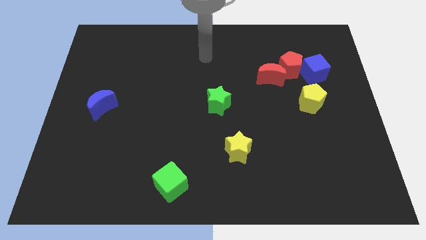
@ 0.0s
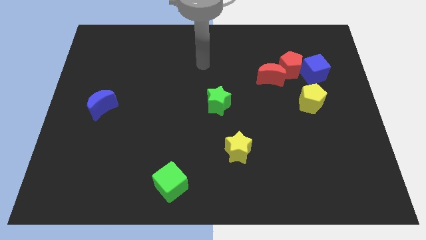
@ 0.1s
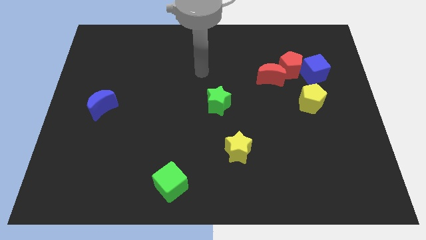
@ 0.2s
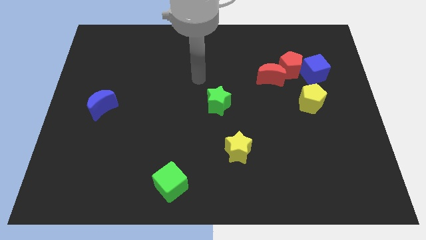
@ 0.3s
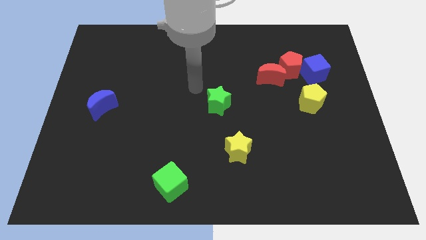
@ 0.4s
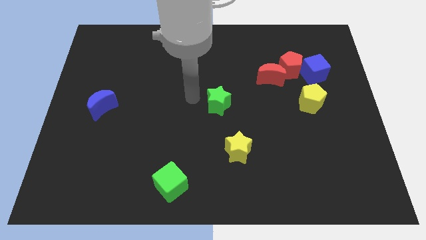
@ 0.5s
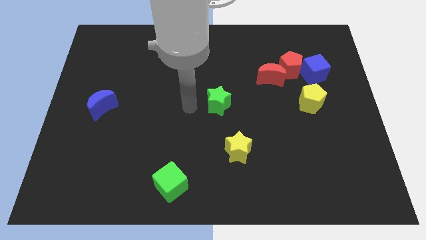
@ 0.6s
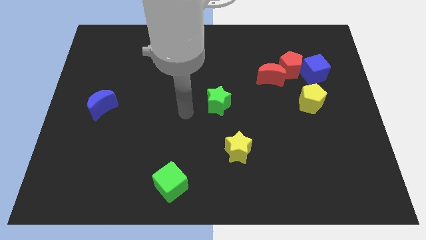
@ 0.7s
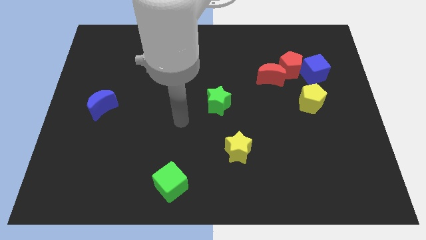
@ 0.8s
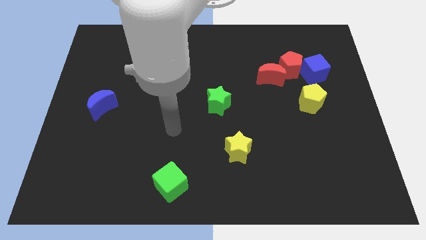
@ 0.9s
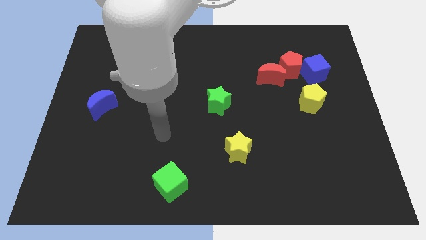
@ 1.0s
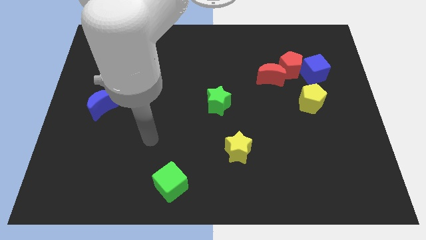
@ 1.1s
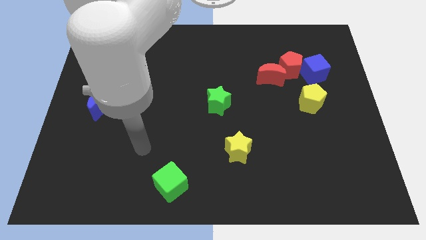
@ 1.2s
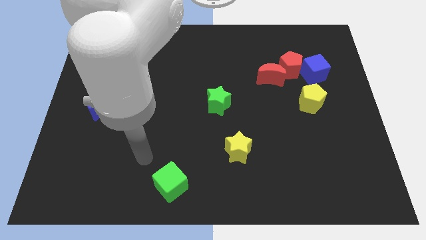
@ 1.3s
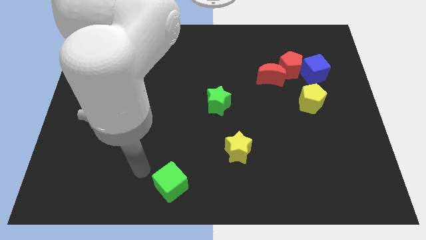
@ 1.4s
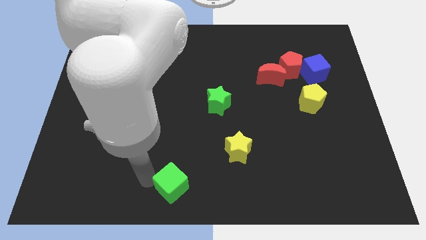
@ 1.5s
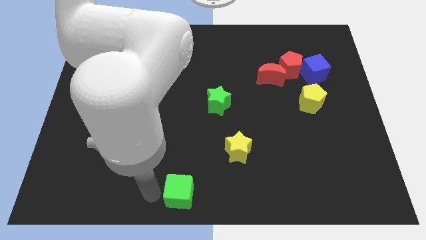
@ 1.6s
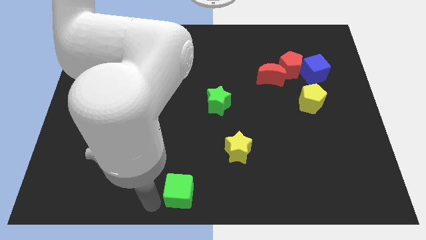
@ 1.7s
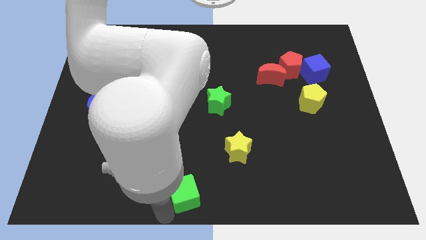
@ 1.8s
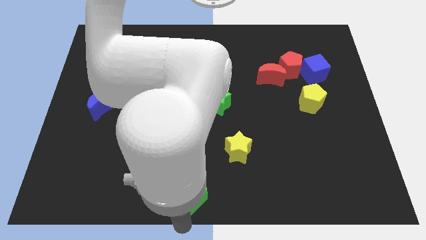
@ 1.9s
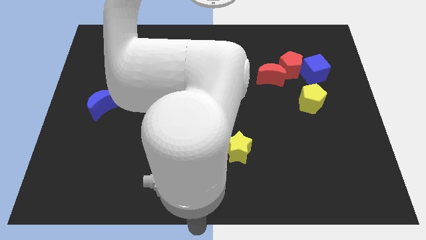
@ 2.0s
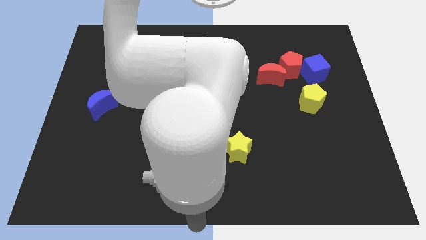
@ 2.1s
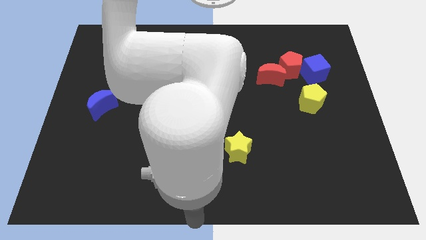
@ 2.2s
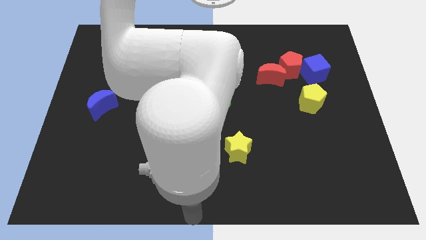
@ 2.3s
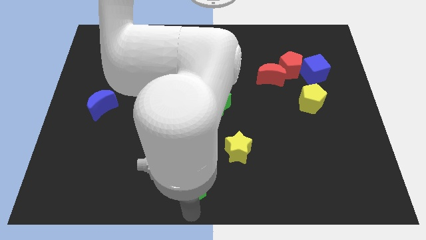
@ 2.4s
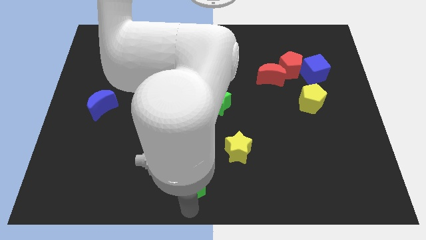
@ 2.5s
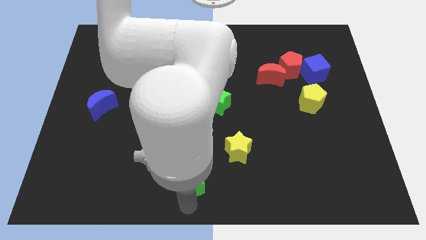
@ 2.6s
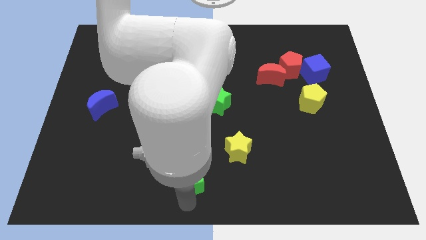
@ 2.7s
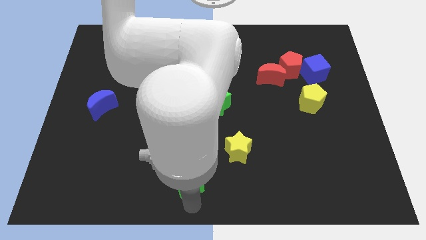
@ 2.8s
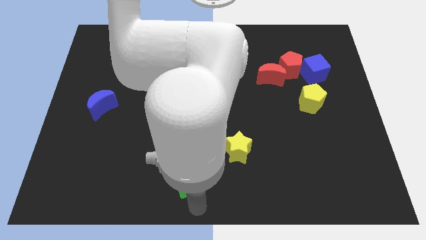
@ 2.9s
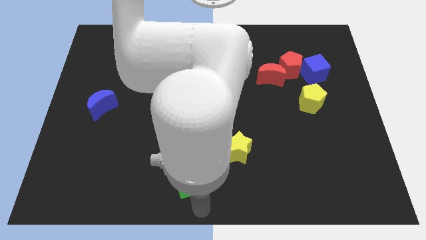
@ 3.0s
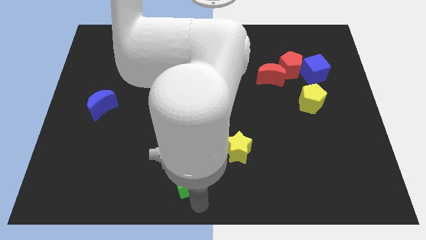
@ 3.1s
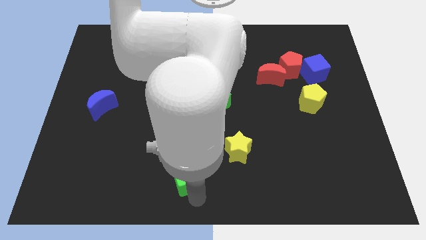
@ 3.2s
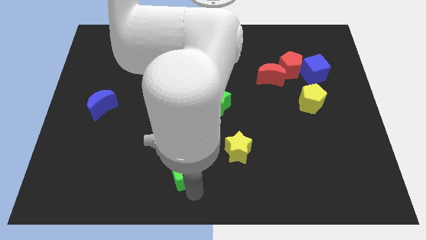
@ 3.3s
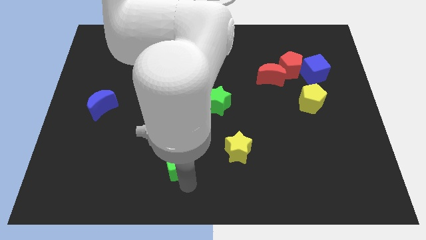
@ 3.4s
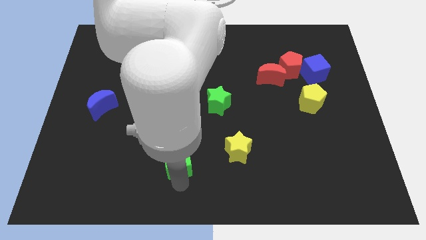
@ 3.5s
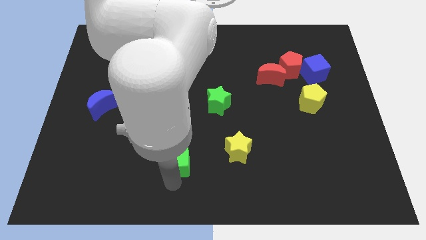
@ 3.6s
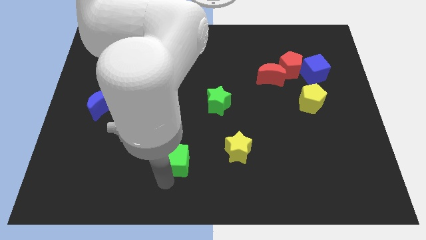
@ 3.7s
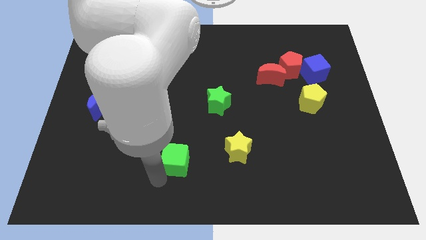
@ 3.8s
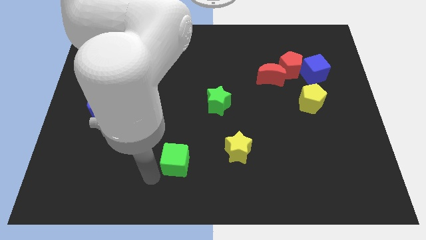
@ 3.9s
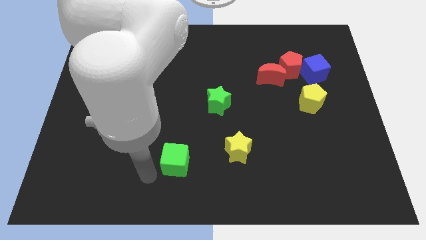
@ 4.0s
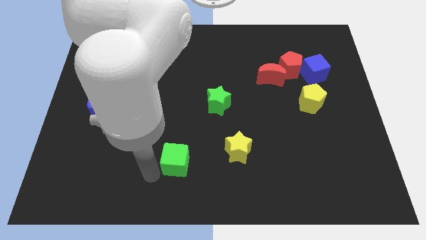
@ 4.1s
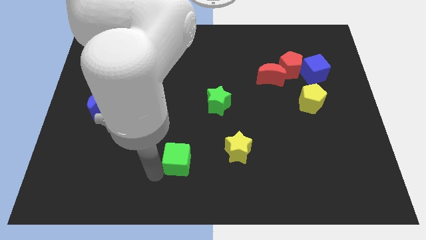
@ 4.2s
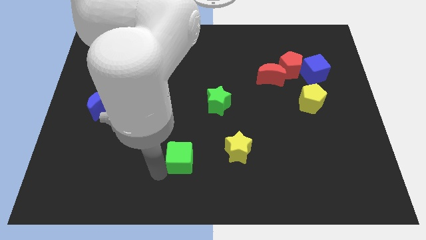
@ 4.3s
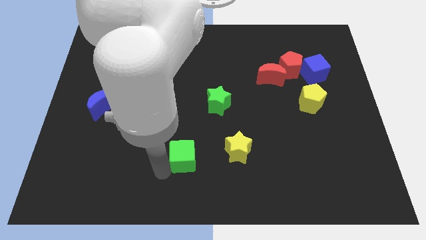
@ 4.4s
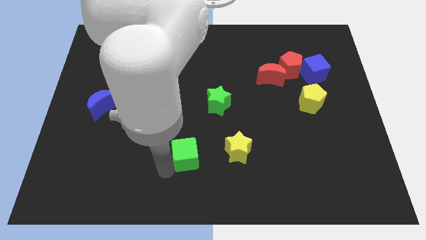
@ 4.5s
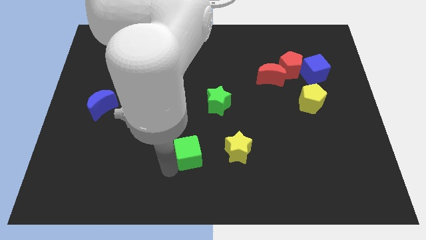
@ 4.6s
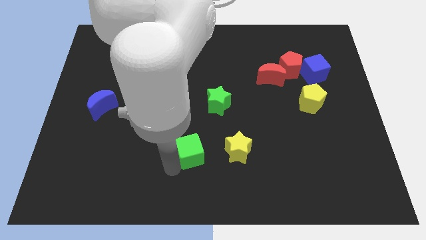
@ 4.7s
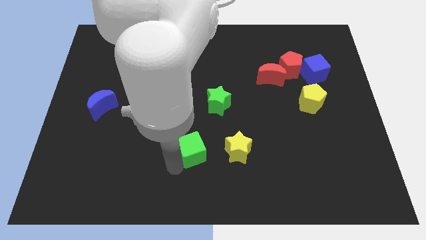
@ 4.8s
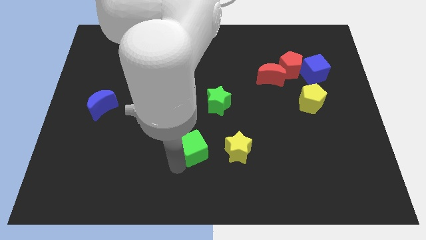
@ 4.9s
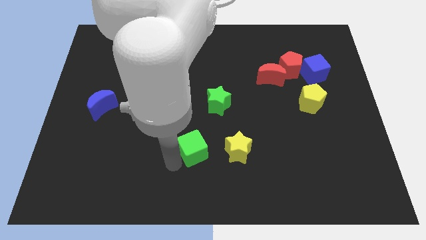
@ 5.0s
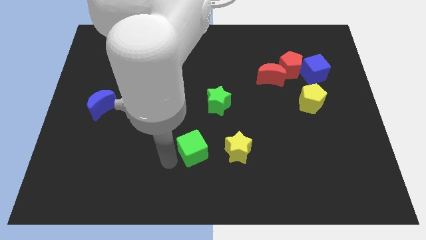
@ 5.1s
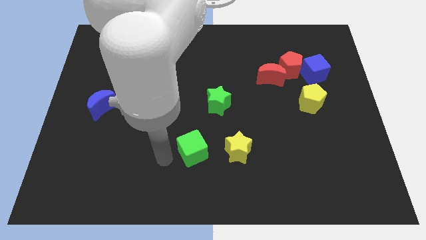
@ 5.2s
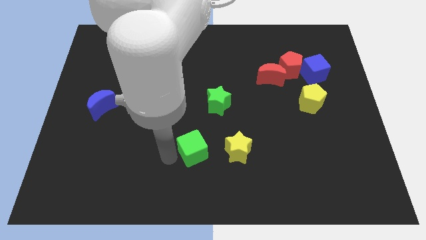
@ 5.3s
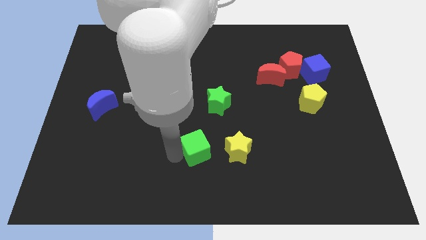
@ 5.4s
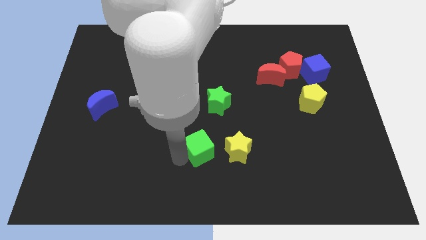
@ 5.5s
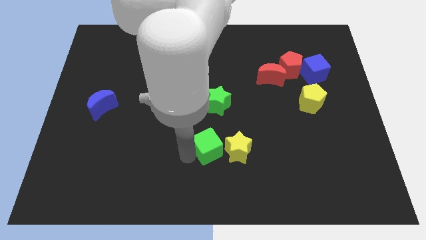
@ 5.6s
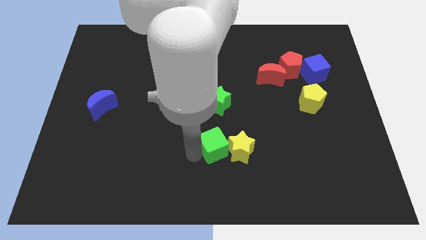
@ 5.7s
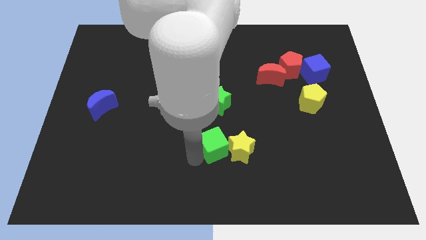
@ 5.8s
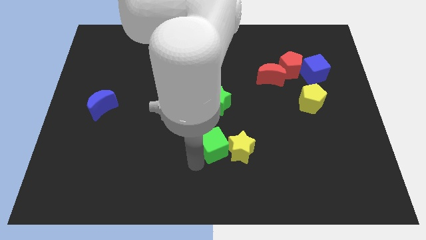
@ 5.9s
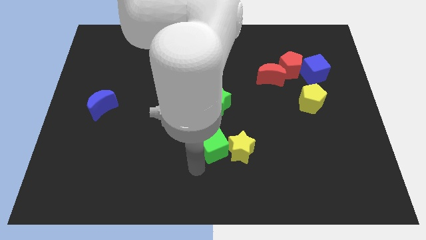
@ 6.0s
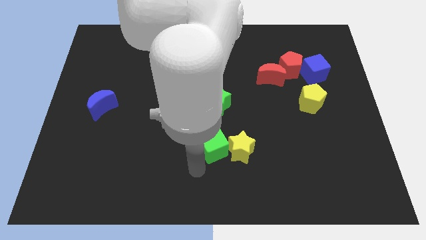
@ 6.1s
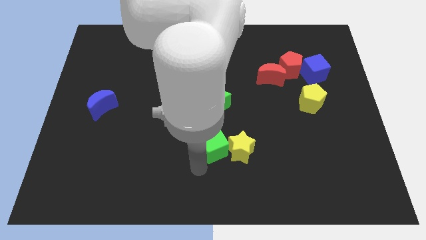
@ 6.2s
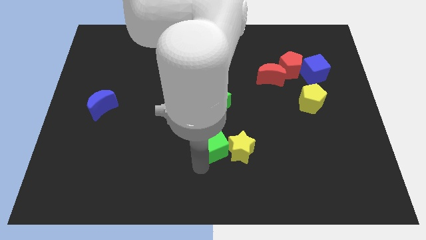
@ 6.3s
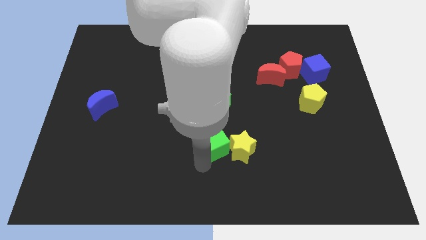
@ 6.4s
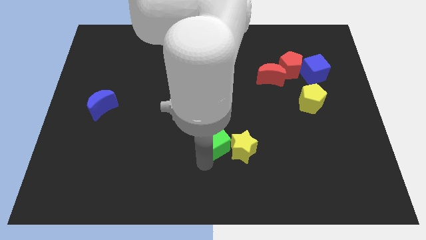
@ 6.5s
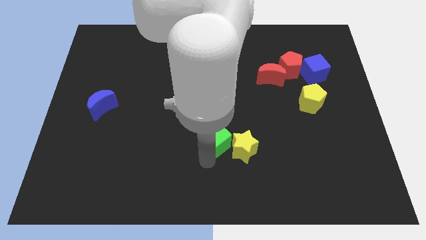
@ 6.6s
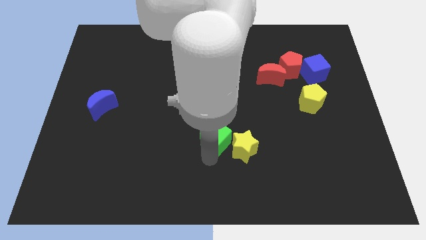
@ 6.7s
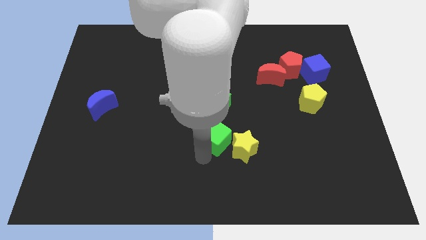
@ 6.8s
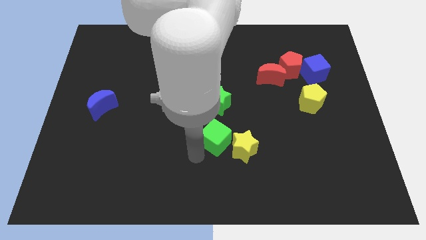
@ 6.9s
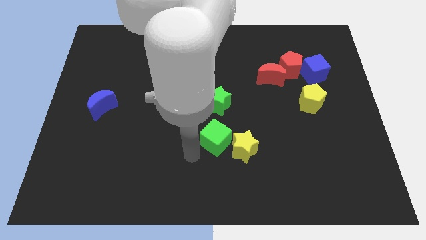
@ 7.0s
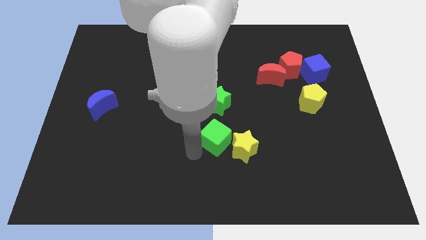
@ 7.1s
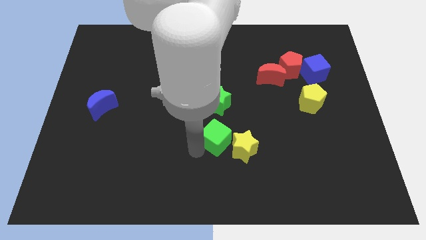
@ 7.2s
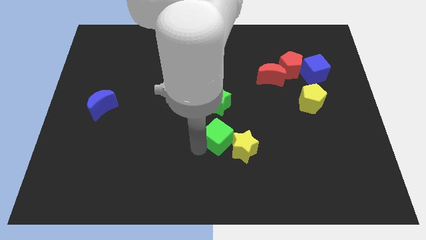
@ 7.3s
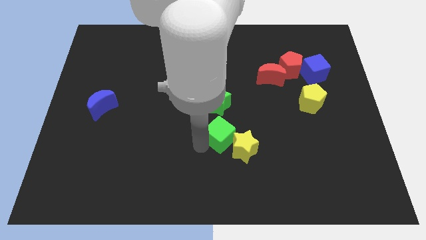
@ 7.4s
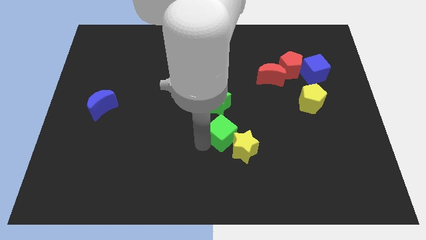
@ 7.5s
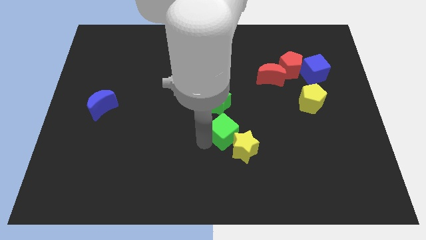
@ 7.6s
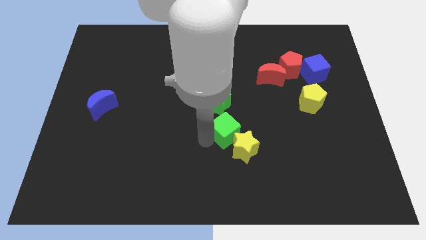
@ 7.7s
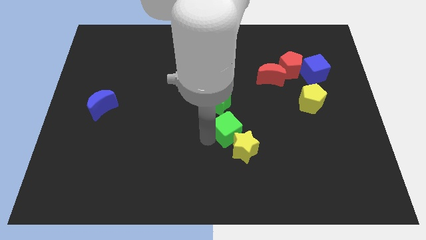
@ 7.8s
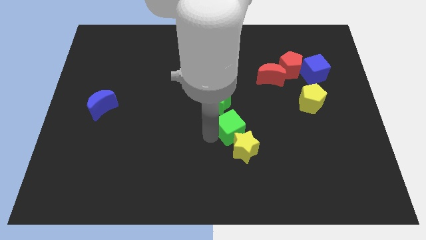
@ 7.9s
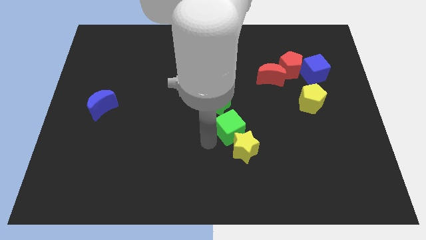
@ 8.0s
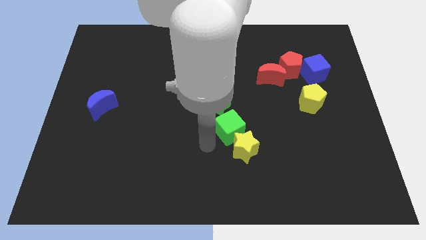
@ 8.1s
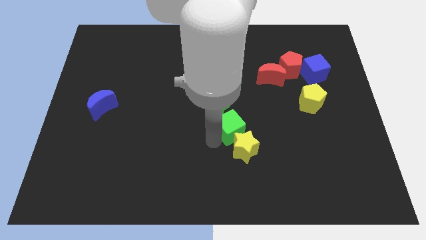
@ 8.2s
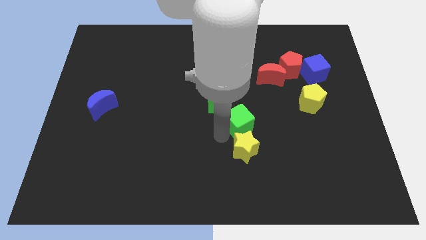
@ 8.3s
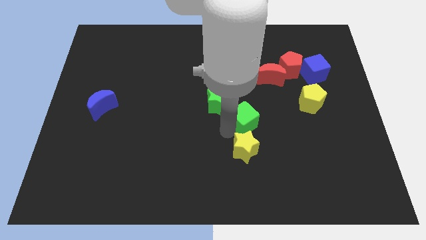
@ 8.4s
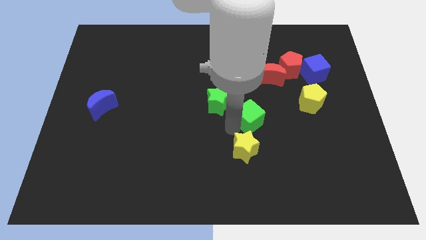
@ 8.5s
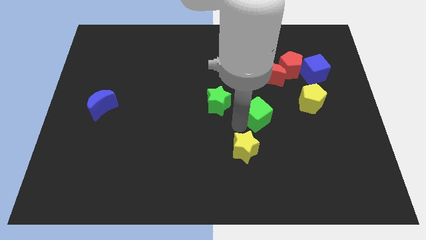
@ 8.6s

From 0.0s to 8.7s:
move the green cube just left of the yellow pentagon
